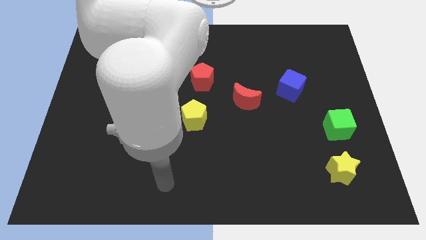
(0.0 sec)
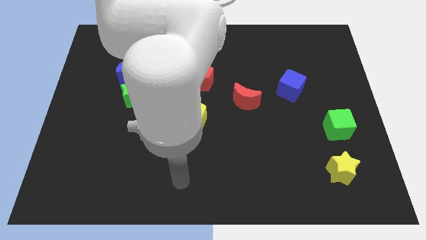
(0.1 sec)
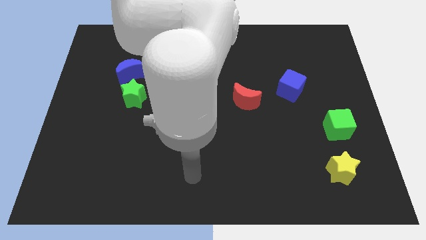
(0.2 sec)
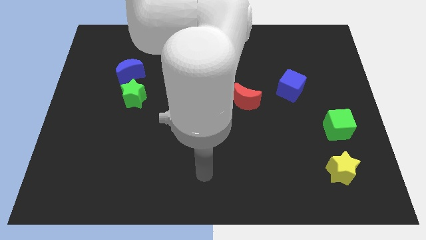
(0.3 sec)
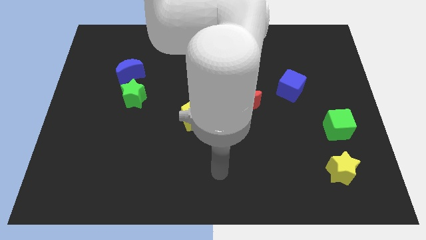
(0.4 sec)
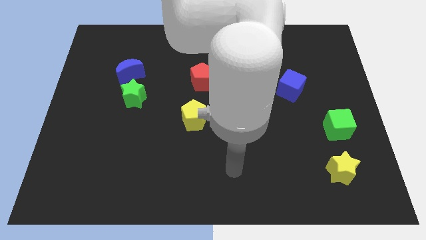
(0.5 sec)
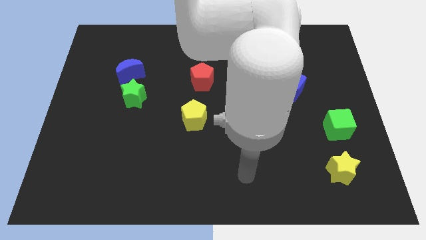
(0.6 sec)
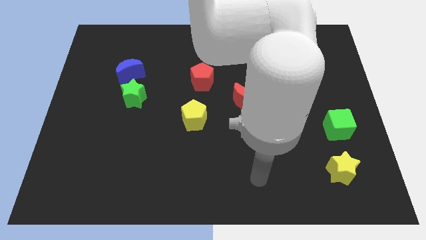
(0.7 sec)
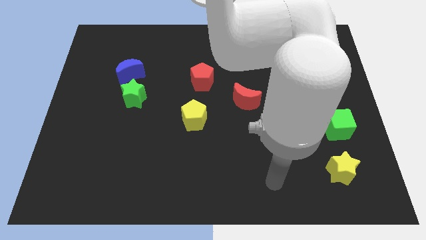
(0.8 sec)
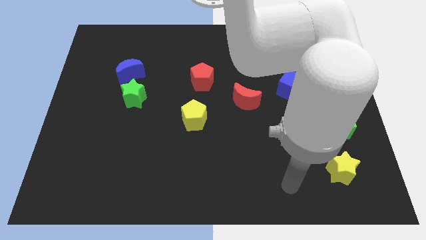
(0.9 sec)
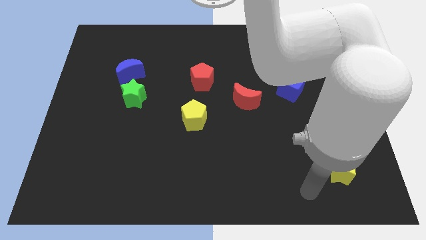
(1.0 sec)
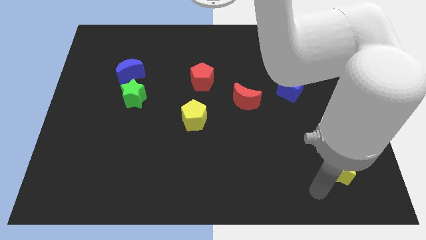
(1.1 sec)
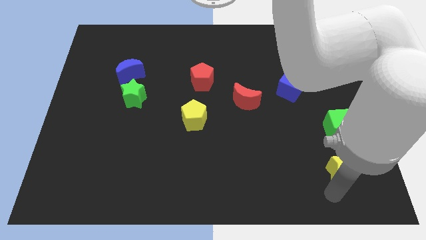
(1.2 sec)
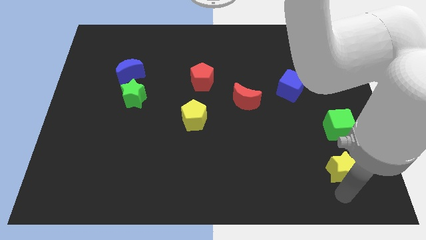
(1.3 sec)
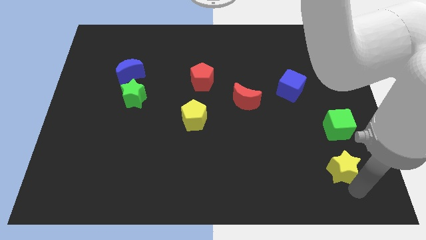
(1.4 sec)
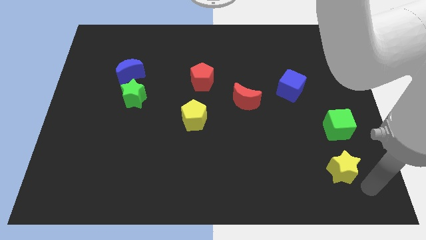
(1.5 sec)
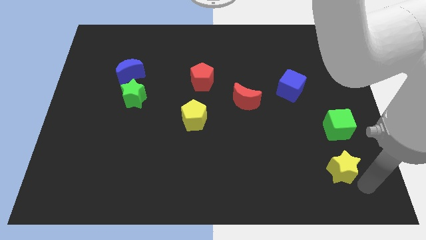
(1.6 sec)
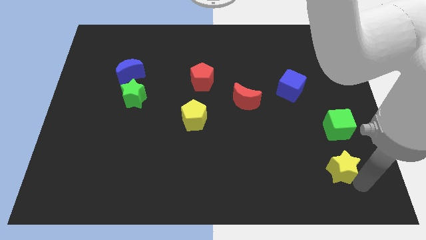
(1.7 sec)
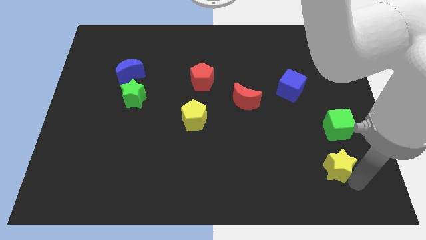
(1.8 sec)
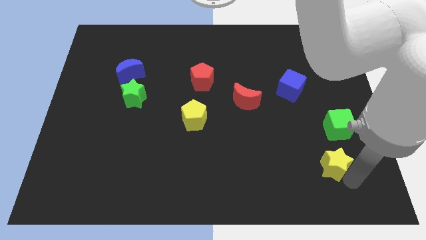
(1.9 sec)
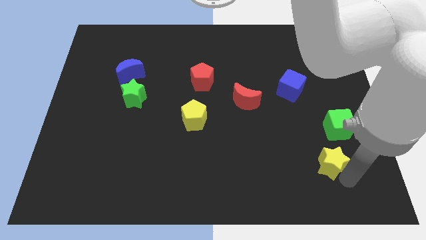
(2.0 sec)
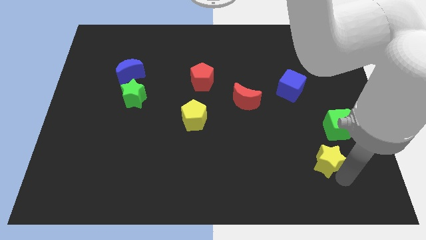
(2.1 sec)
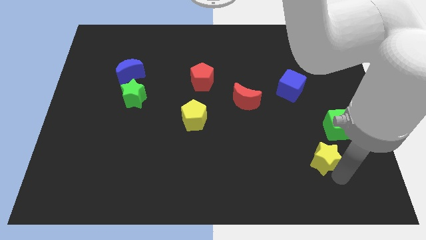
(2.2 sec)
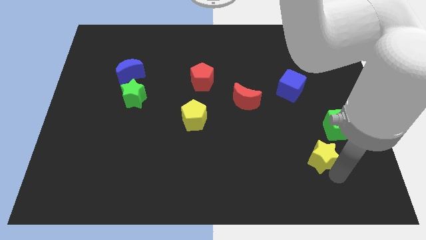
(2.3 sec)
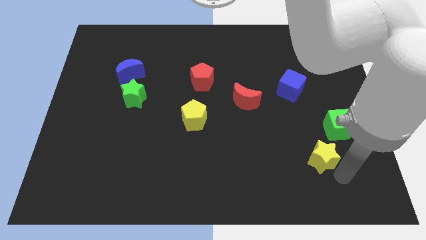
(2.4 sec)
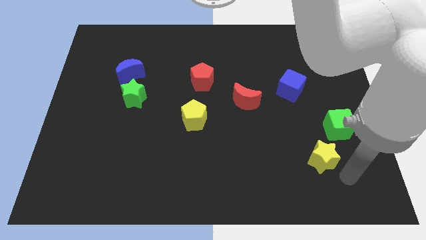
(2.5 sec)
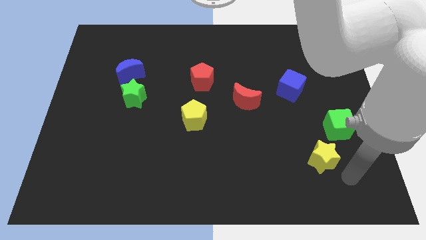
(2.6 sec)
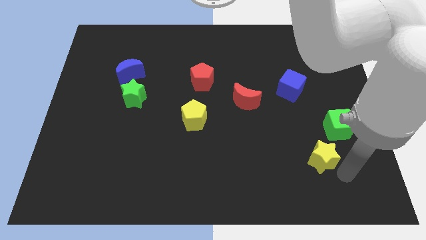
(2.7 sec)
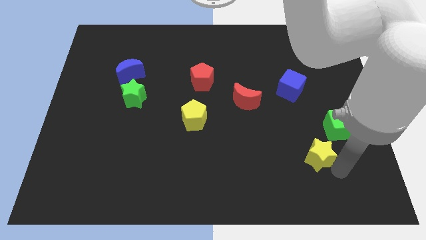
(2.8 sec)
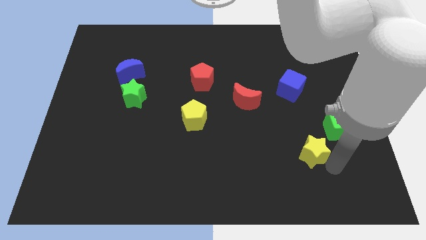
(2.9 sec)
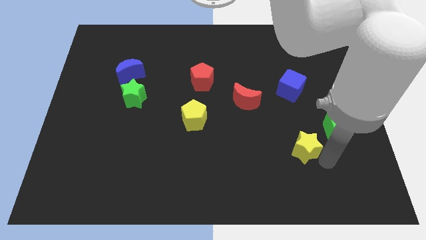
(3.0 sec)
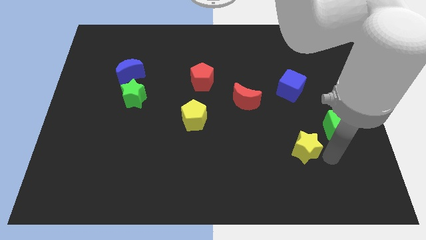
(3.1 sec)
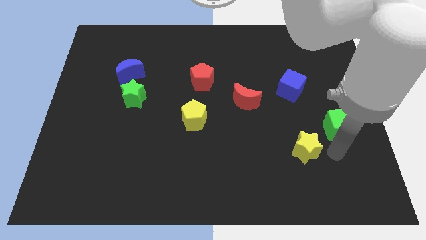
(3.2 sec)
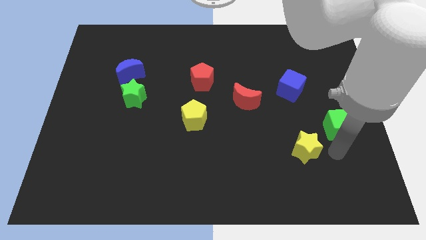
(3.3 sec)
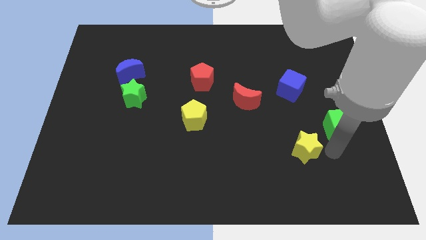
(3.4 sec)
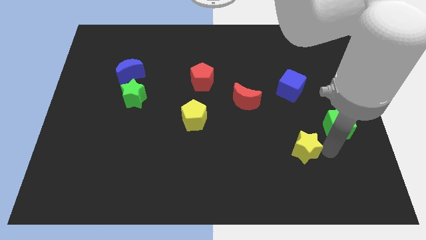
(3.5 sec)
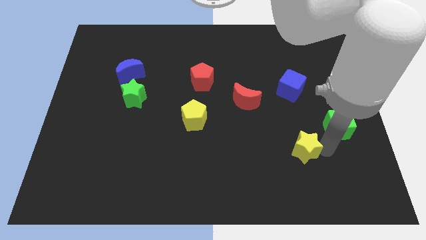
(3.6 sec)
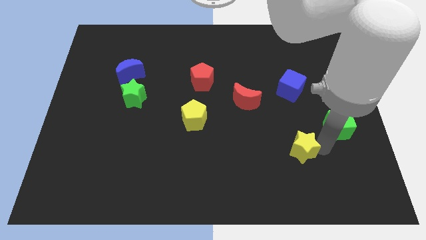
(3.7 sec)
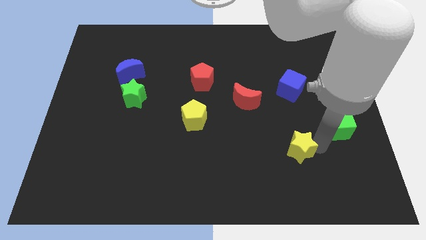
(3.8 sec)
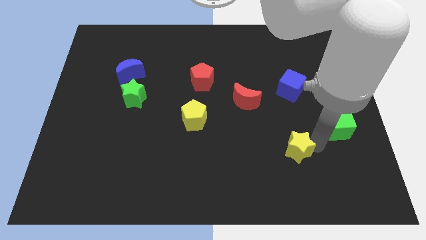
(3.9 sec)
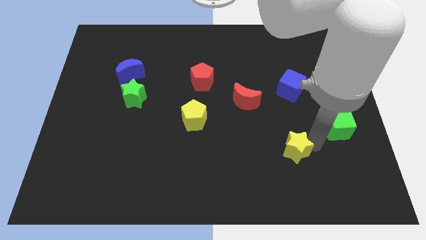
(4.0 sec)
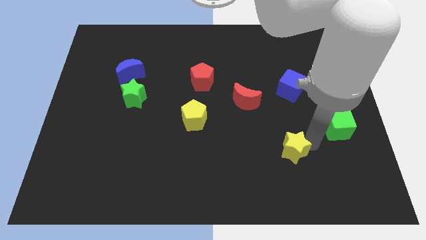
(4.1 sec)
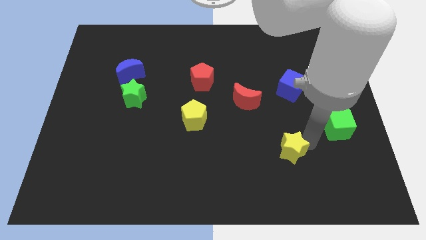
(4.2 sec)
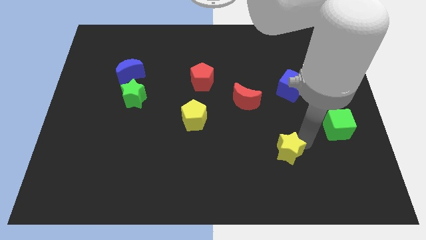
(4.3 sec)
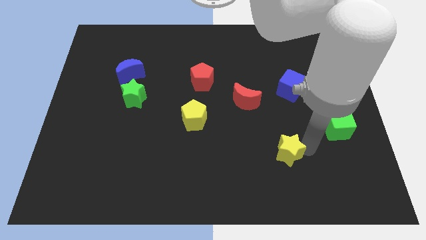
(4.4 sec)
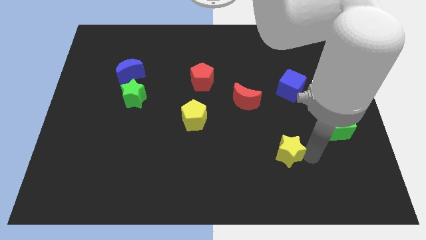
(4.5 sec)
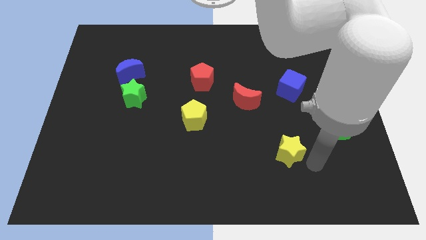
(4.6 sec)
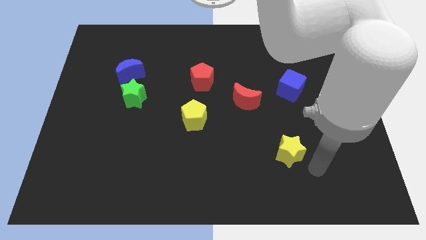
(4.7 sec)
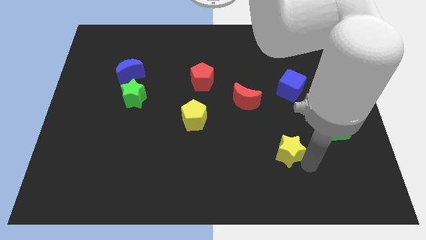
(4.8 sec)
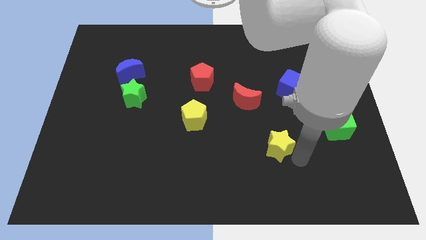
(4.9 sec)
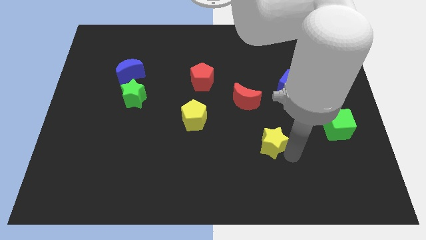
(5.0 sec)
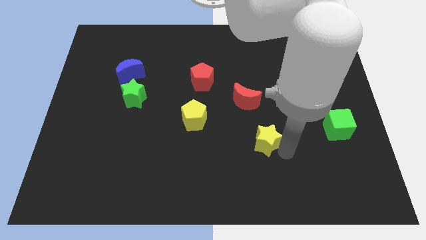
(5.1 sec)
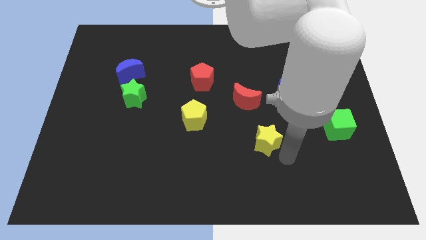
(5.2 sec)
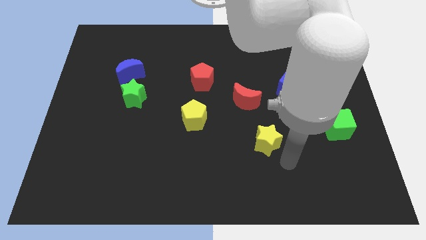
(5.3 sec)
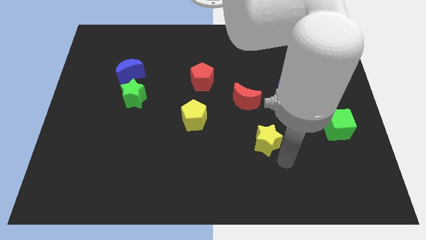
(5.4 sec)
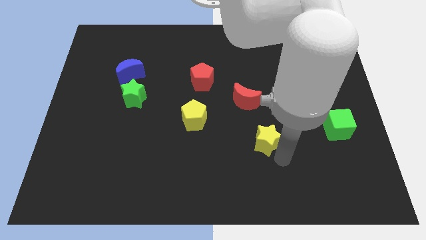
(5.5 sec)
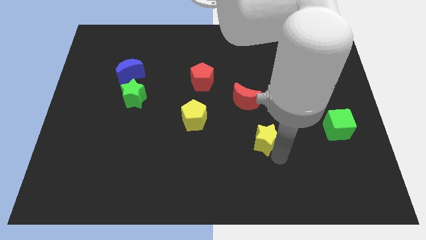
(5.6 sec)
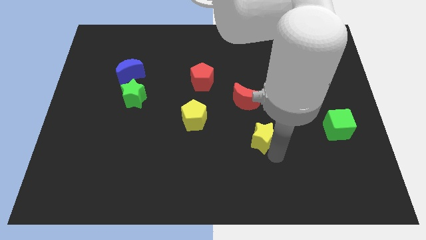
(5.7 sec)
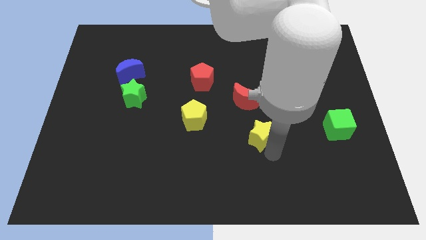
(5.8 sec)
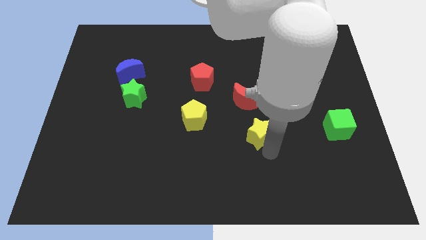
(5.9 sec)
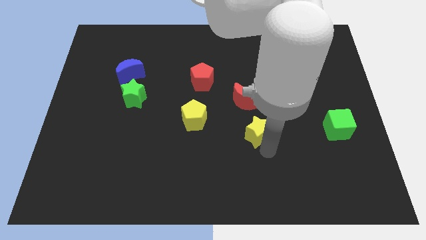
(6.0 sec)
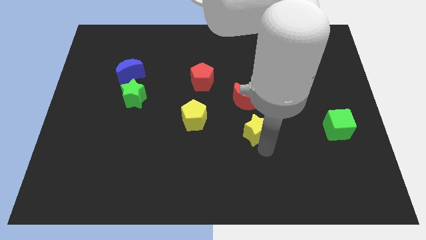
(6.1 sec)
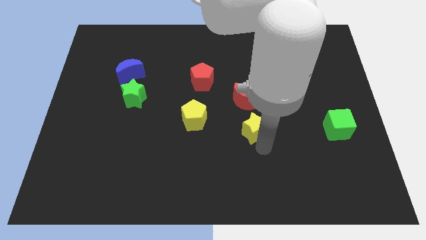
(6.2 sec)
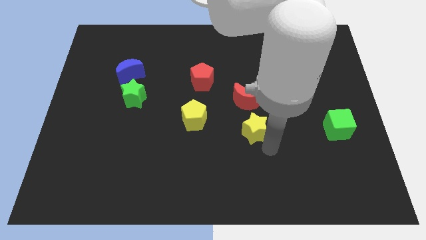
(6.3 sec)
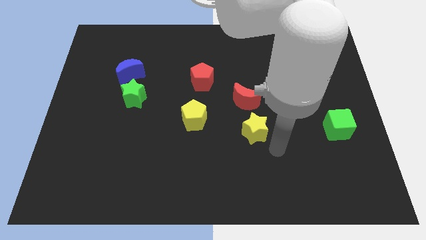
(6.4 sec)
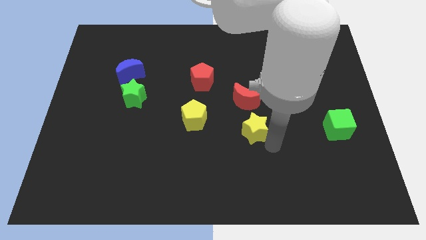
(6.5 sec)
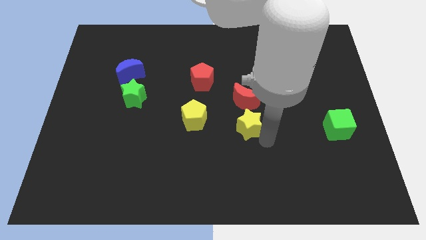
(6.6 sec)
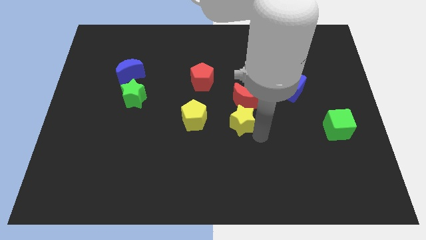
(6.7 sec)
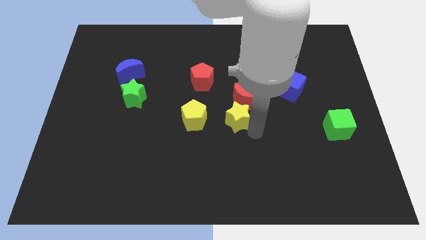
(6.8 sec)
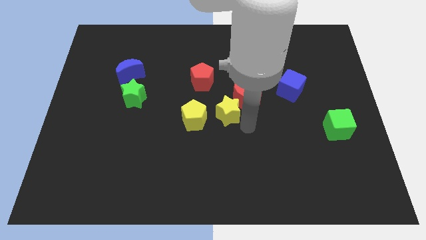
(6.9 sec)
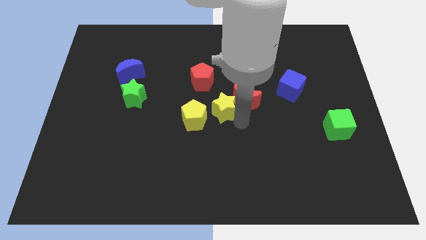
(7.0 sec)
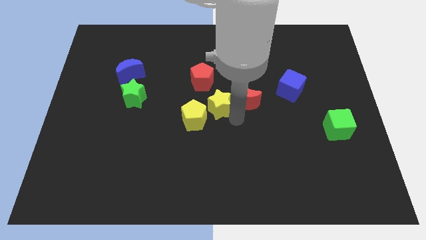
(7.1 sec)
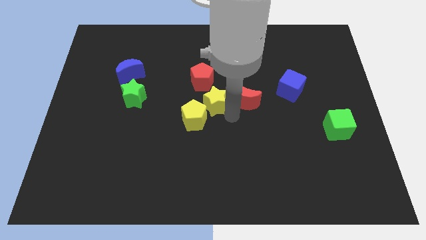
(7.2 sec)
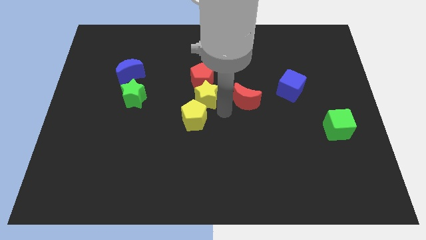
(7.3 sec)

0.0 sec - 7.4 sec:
move the yellow star next to the red pentagon
